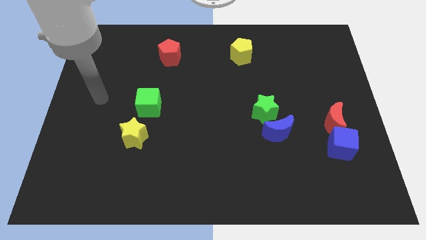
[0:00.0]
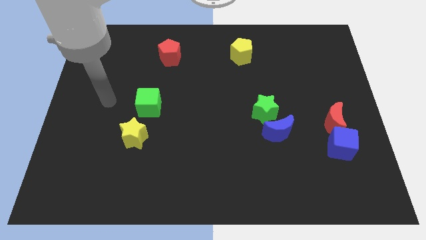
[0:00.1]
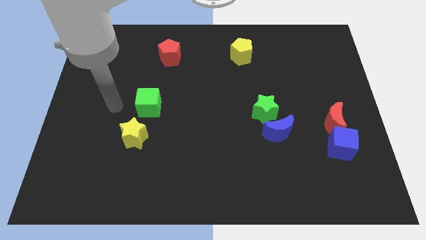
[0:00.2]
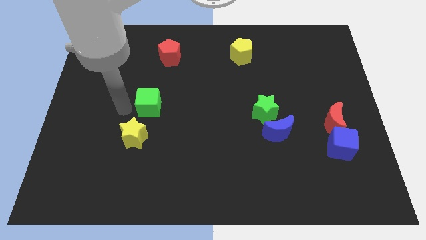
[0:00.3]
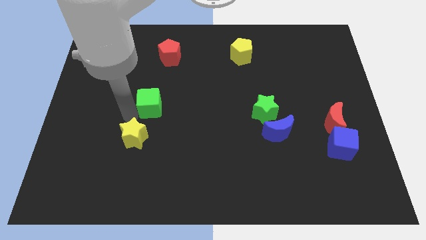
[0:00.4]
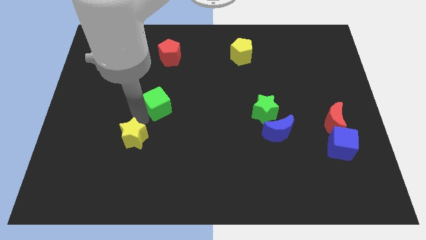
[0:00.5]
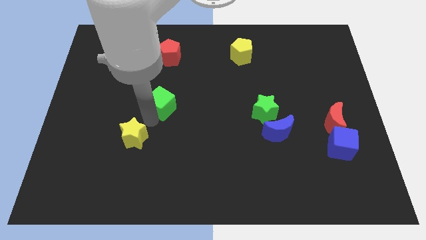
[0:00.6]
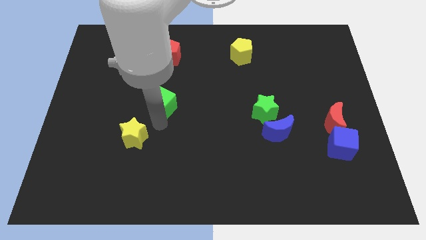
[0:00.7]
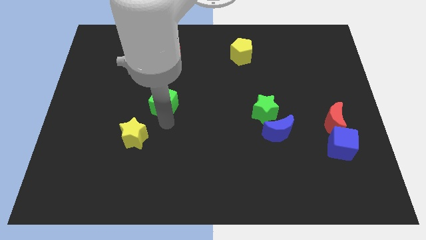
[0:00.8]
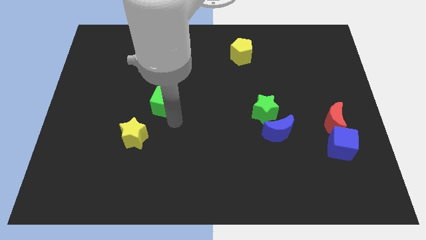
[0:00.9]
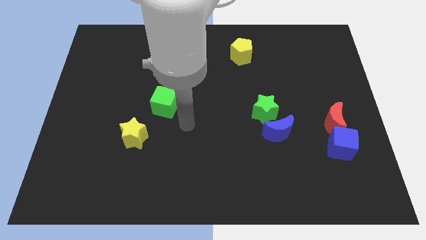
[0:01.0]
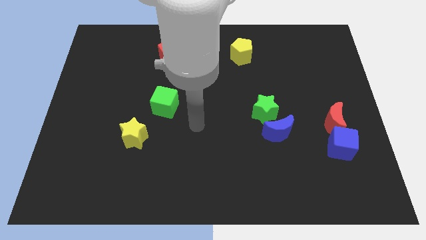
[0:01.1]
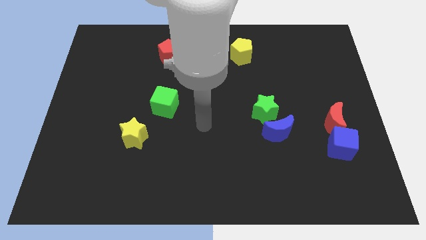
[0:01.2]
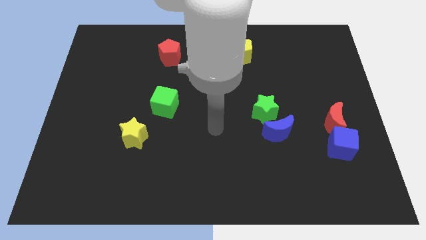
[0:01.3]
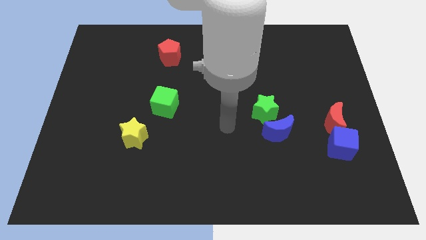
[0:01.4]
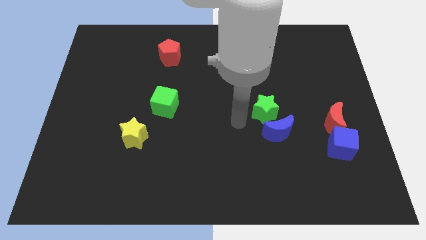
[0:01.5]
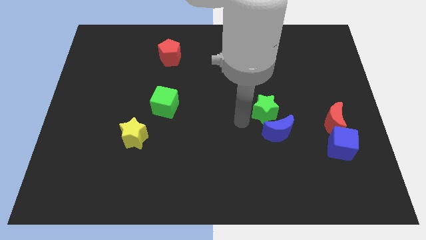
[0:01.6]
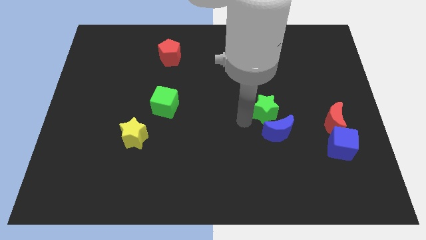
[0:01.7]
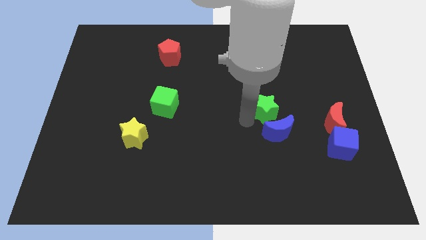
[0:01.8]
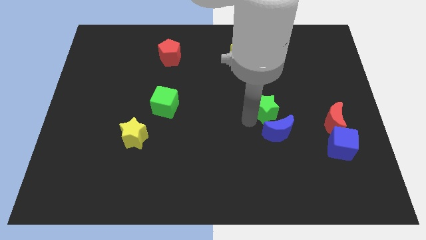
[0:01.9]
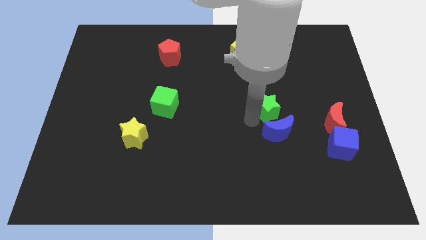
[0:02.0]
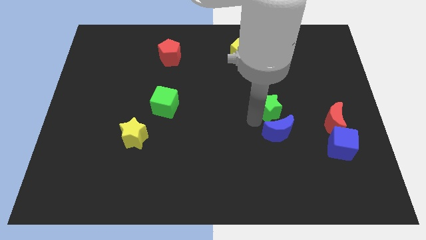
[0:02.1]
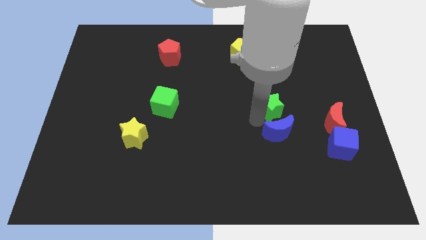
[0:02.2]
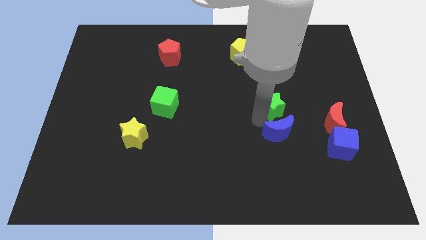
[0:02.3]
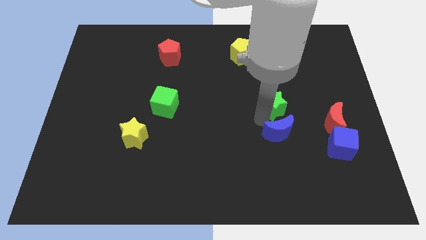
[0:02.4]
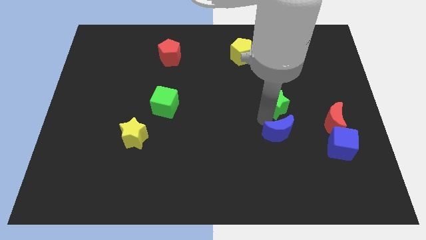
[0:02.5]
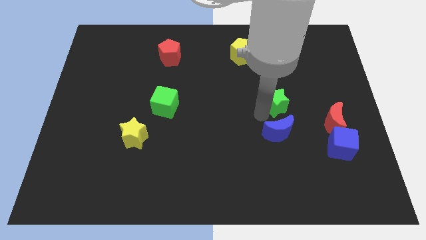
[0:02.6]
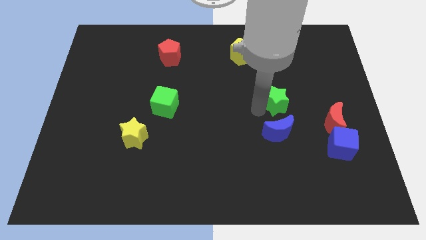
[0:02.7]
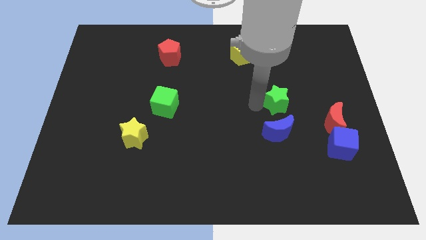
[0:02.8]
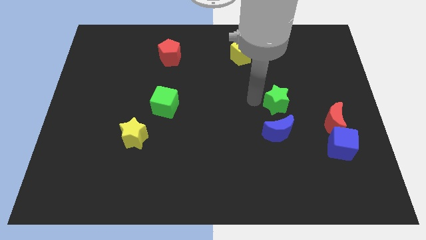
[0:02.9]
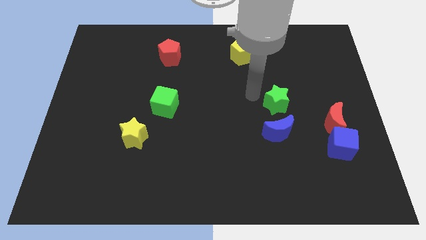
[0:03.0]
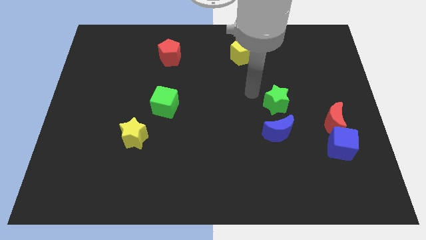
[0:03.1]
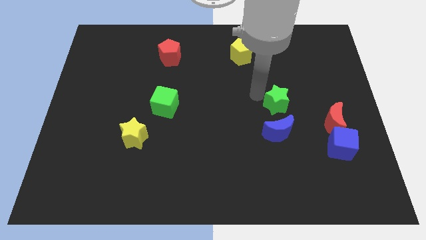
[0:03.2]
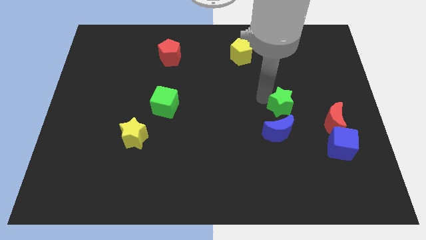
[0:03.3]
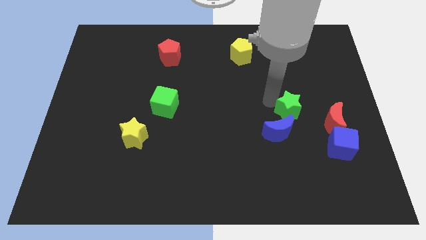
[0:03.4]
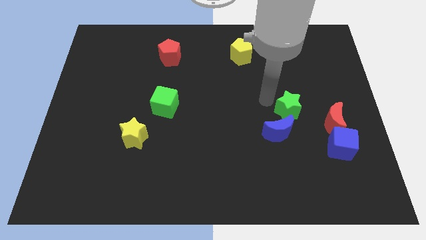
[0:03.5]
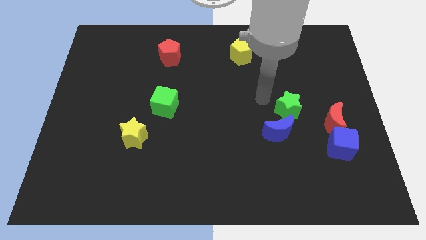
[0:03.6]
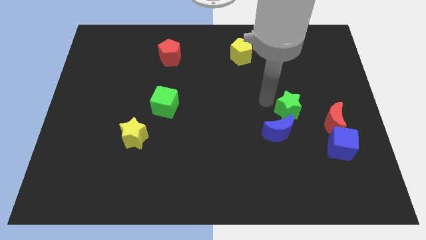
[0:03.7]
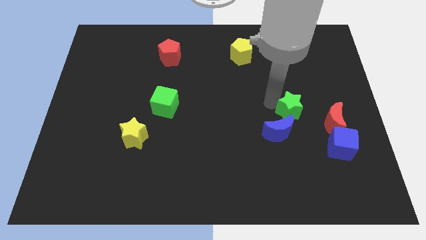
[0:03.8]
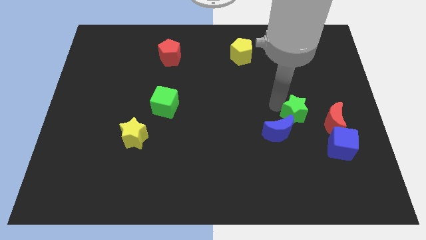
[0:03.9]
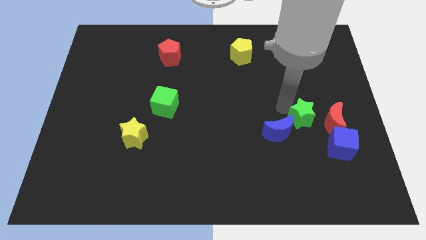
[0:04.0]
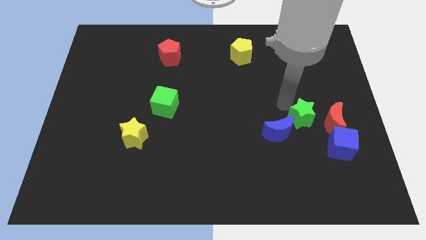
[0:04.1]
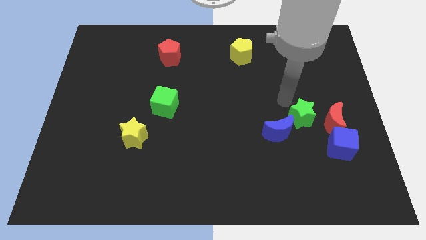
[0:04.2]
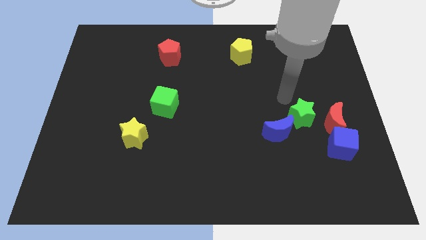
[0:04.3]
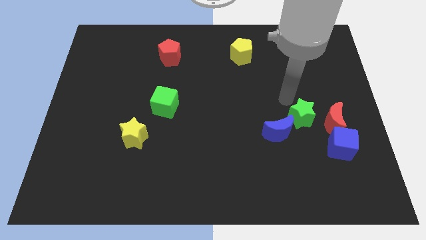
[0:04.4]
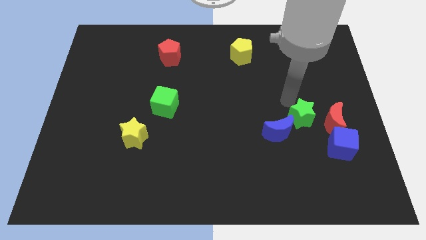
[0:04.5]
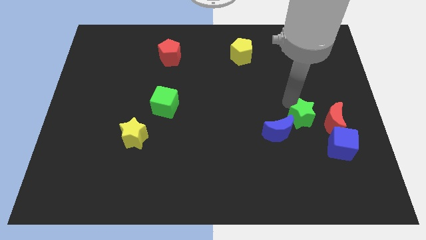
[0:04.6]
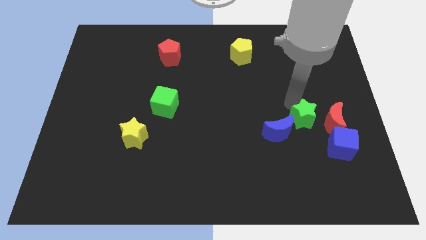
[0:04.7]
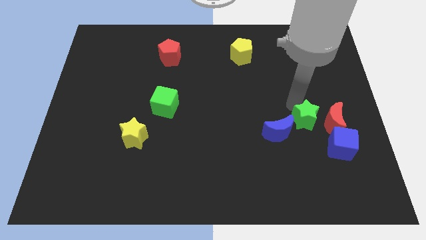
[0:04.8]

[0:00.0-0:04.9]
slightly move the green star diagonally down and to the right

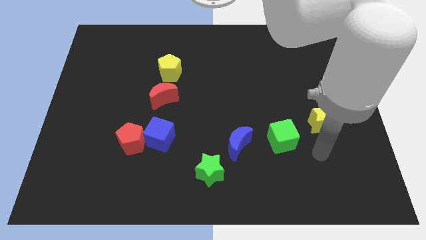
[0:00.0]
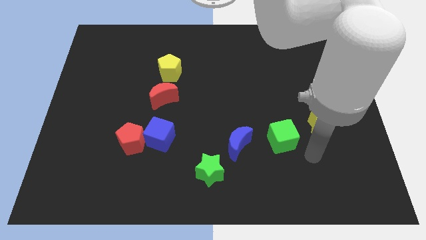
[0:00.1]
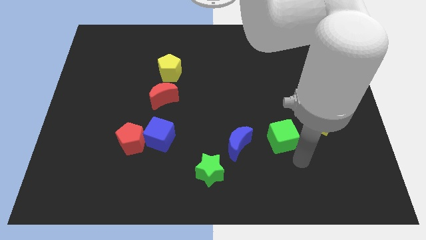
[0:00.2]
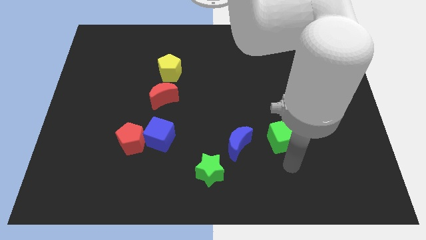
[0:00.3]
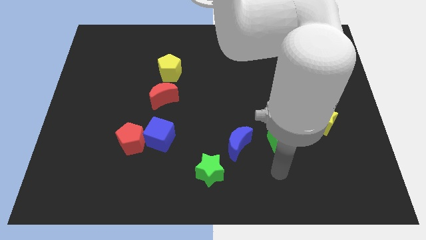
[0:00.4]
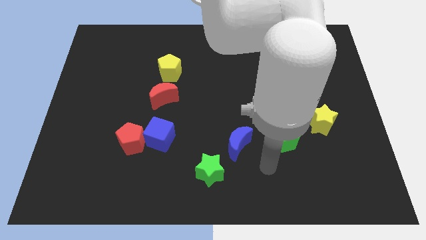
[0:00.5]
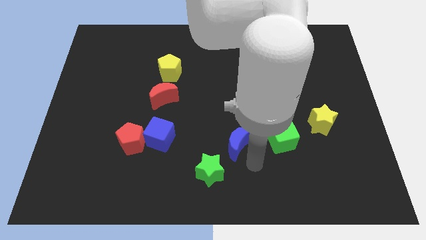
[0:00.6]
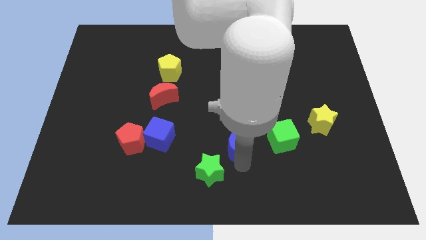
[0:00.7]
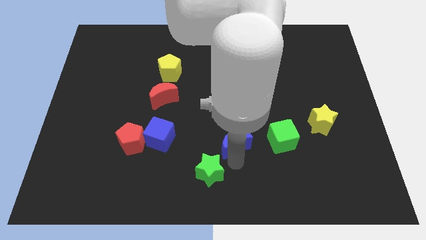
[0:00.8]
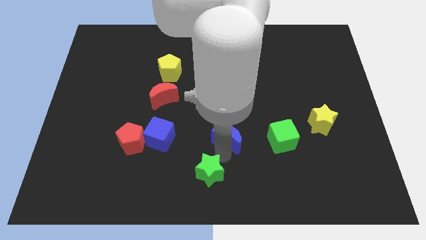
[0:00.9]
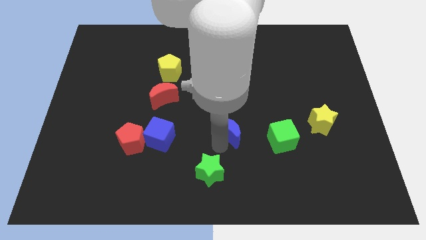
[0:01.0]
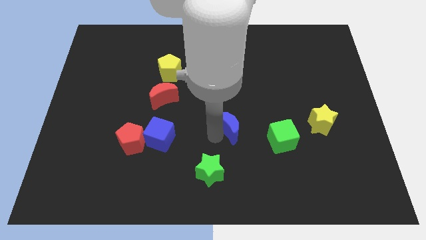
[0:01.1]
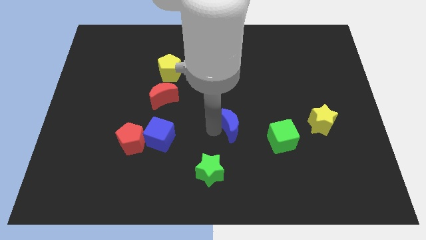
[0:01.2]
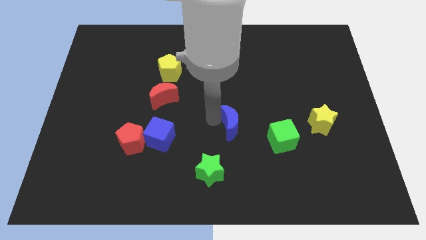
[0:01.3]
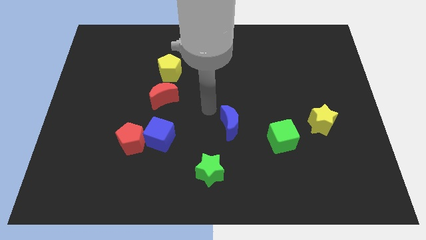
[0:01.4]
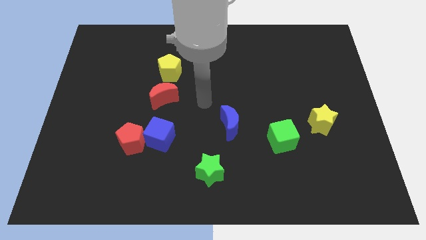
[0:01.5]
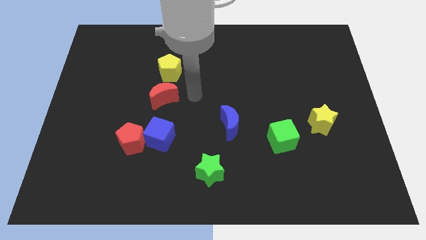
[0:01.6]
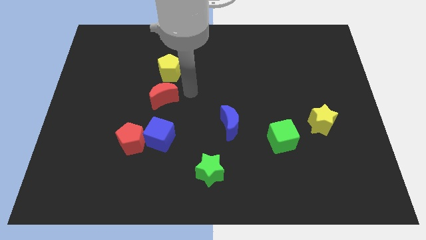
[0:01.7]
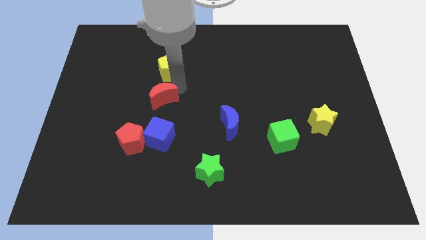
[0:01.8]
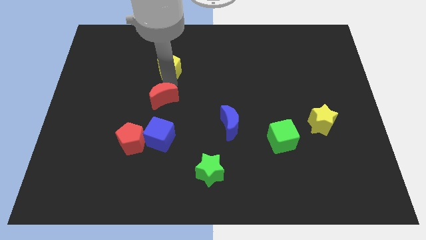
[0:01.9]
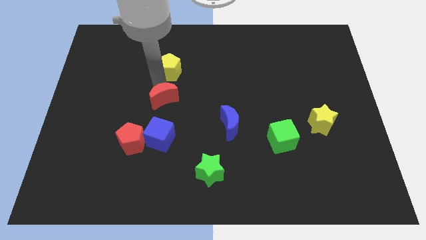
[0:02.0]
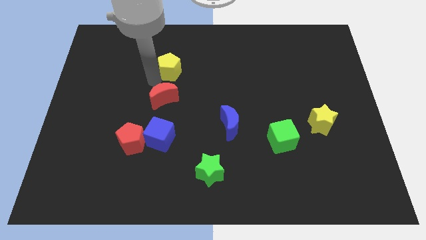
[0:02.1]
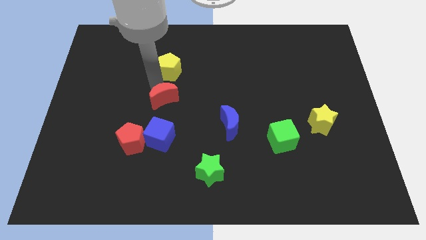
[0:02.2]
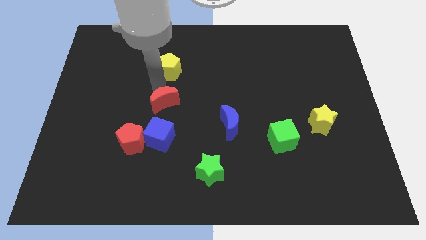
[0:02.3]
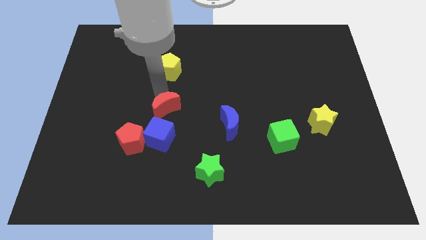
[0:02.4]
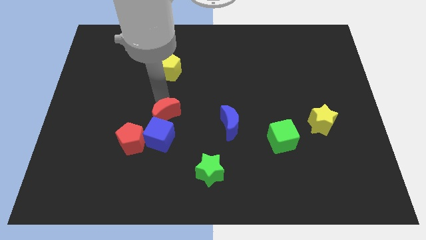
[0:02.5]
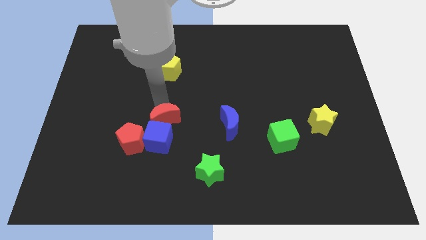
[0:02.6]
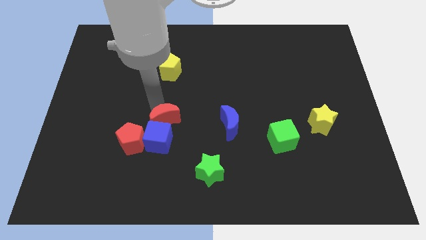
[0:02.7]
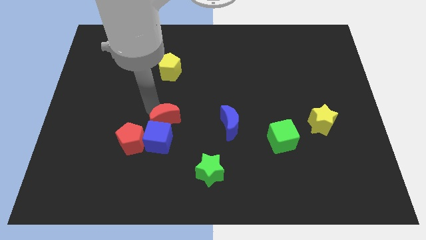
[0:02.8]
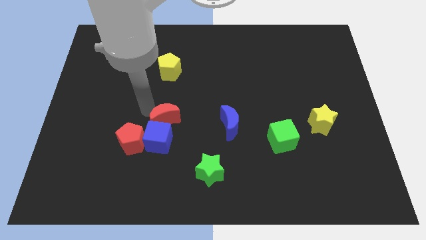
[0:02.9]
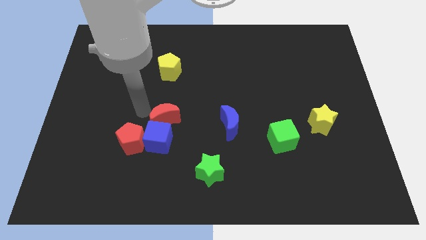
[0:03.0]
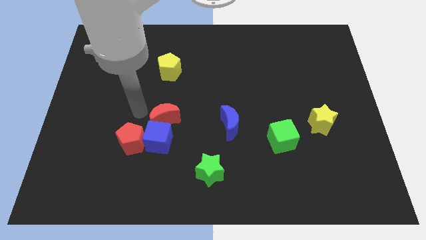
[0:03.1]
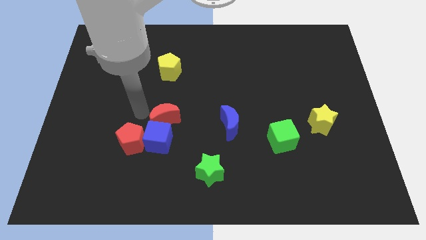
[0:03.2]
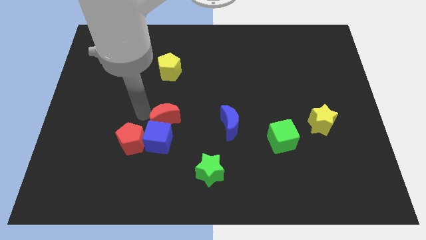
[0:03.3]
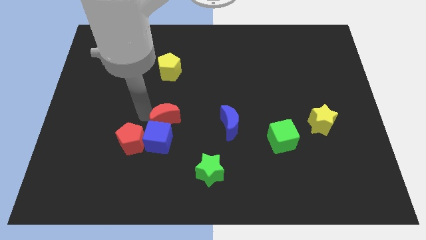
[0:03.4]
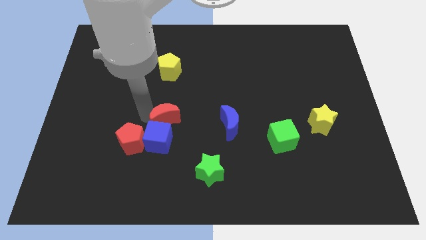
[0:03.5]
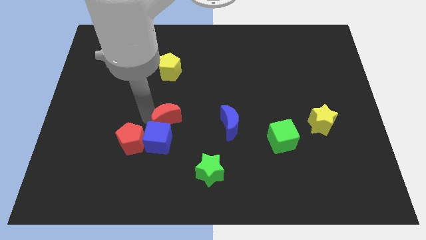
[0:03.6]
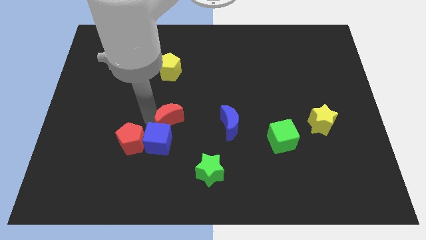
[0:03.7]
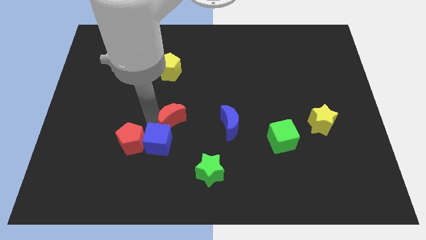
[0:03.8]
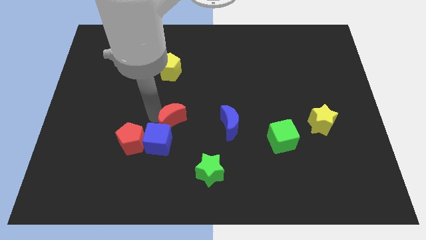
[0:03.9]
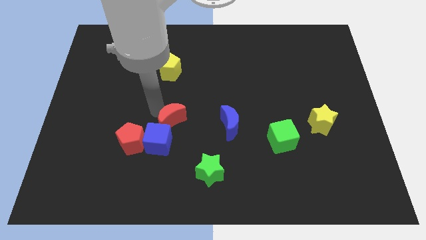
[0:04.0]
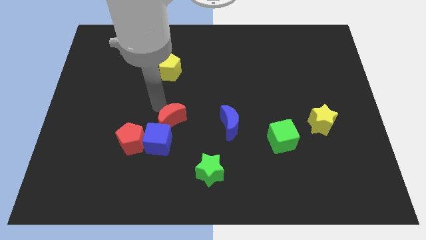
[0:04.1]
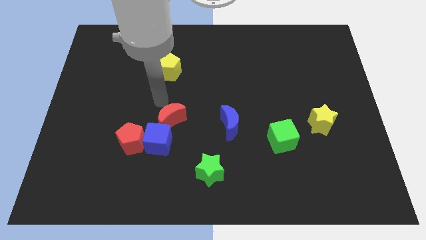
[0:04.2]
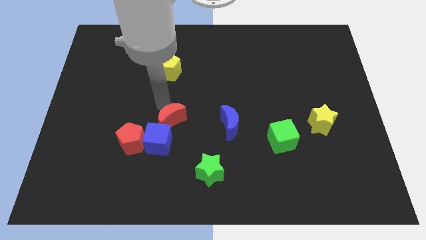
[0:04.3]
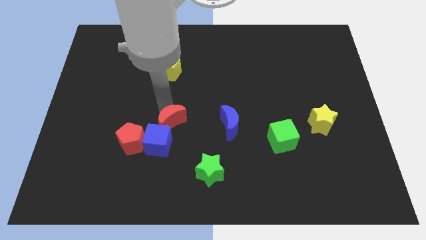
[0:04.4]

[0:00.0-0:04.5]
slightly move the red moon downwards
